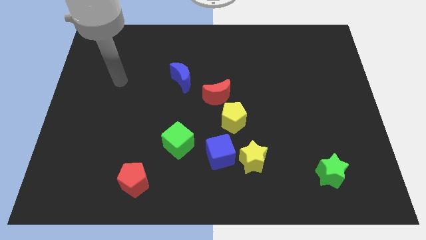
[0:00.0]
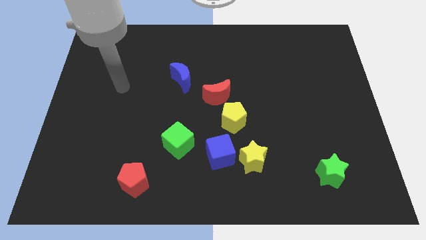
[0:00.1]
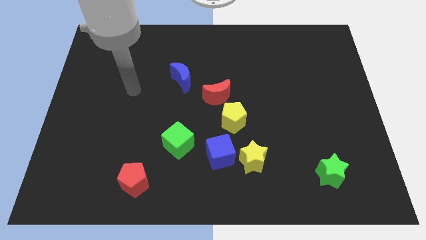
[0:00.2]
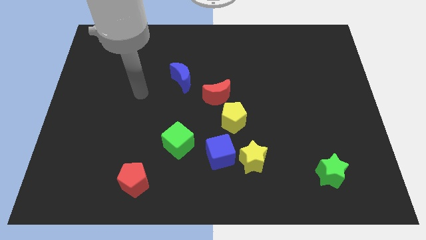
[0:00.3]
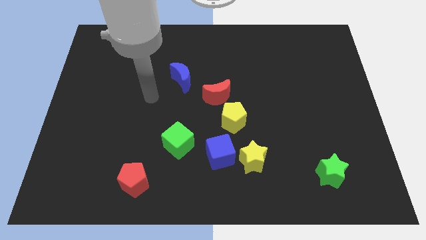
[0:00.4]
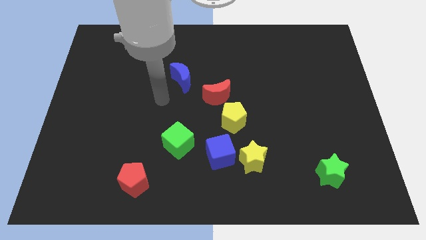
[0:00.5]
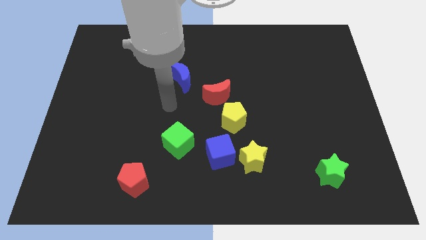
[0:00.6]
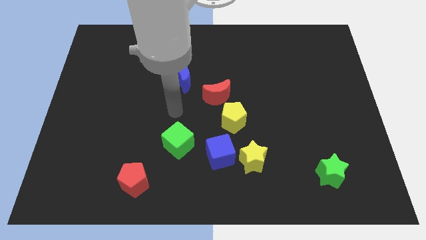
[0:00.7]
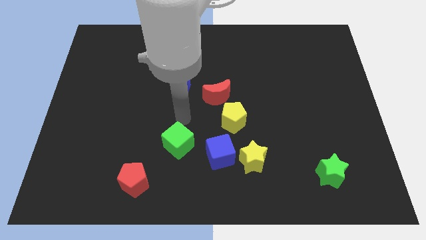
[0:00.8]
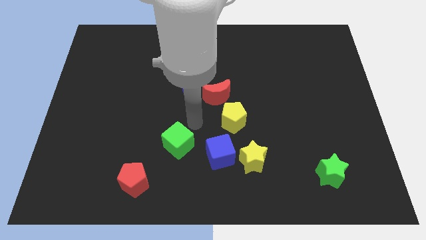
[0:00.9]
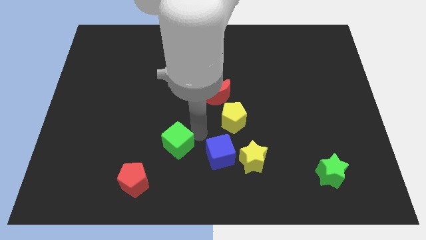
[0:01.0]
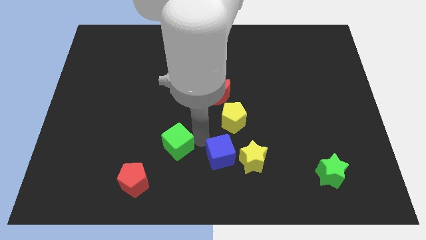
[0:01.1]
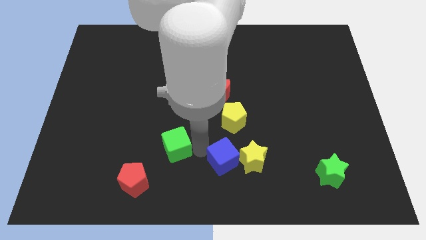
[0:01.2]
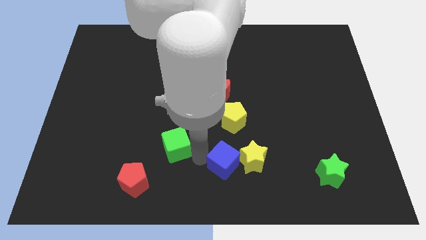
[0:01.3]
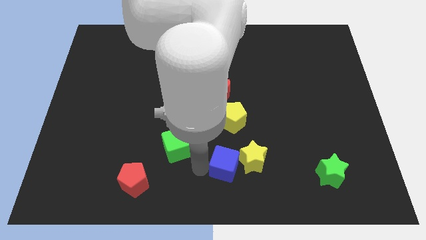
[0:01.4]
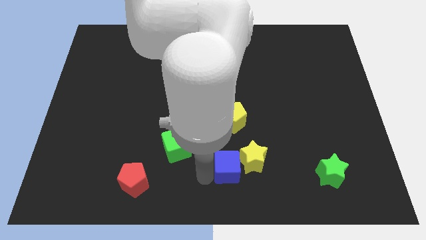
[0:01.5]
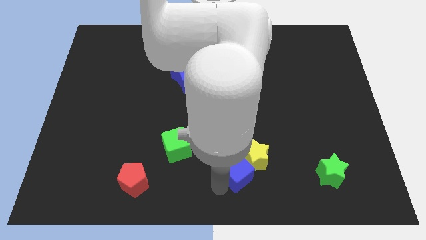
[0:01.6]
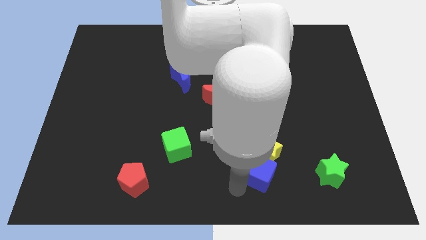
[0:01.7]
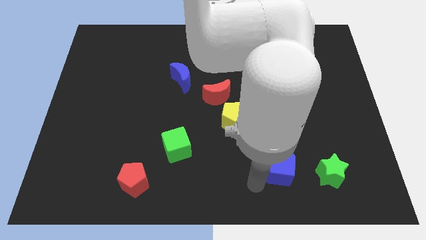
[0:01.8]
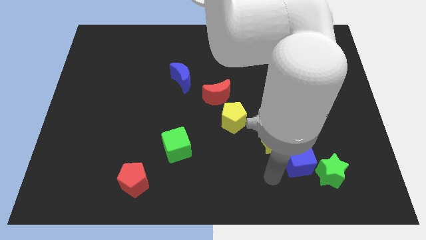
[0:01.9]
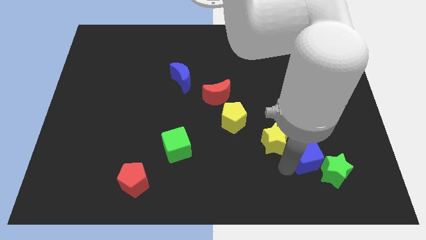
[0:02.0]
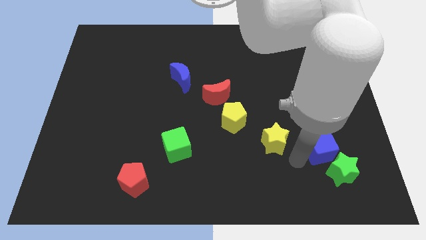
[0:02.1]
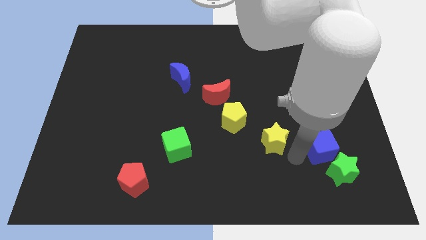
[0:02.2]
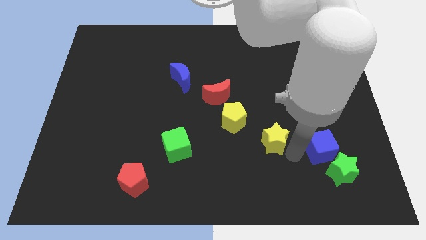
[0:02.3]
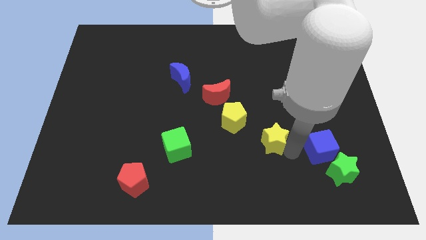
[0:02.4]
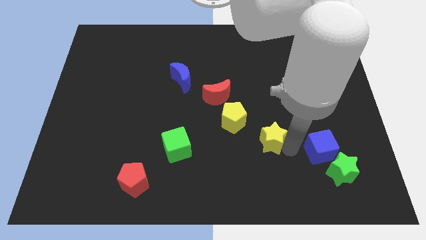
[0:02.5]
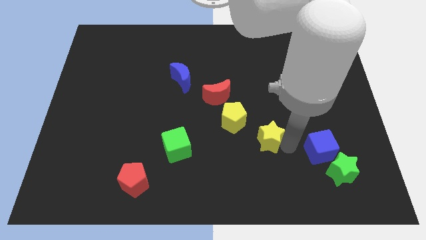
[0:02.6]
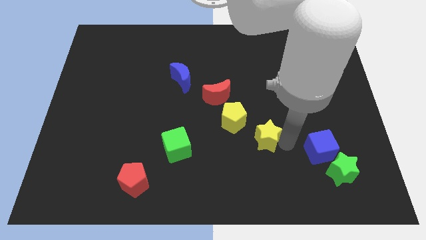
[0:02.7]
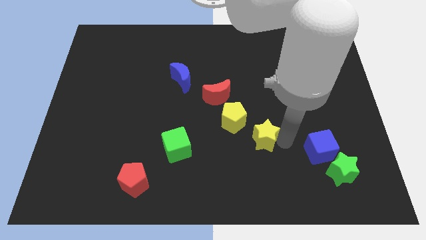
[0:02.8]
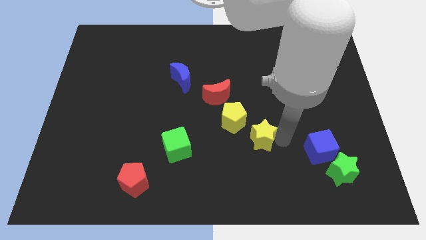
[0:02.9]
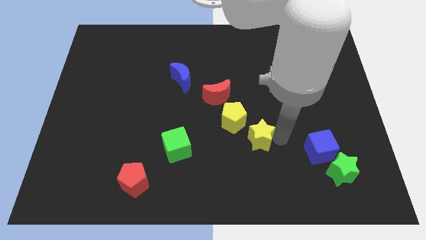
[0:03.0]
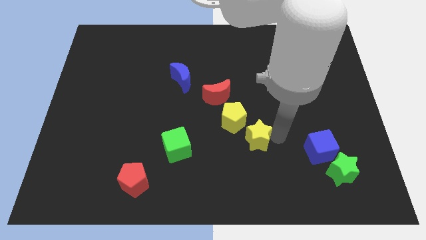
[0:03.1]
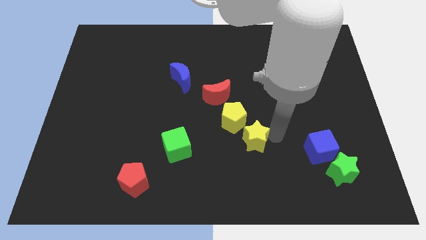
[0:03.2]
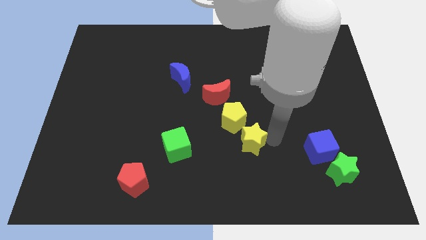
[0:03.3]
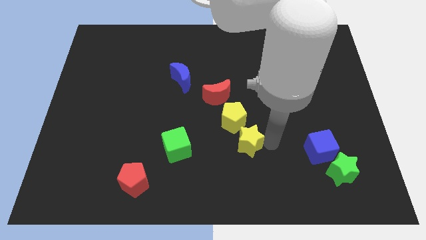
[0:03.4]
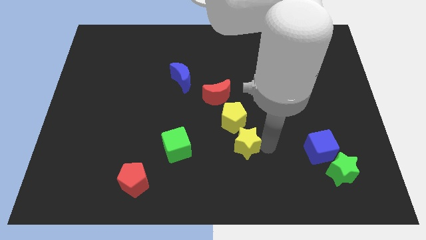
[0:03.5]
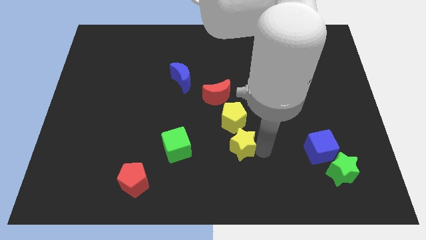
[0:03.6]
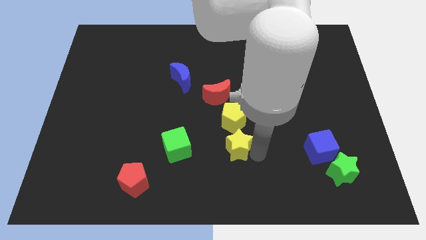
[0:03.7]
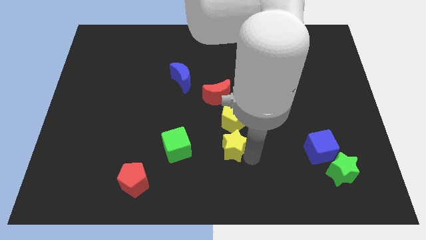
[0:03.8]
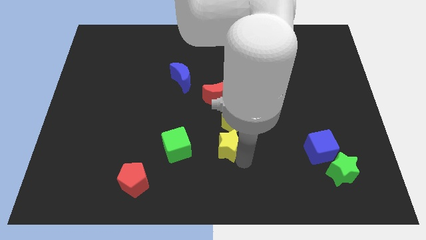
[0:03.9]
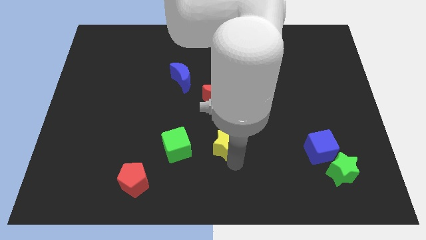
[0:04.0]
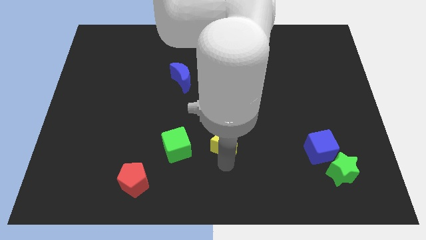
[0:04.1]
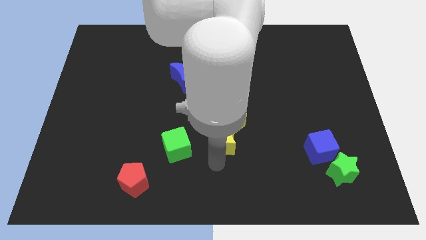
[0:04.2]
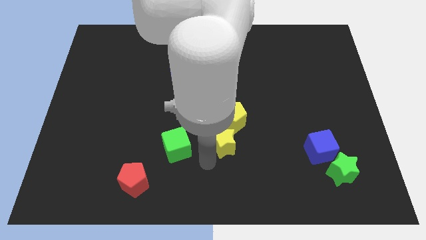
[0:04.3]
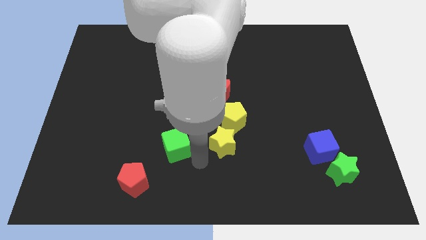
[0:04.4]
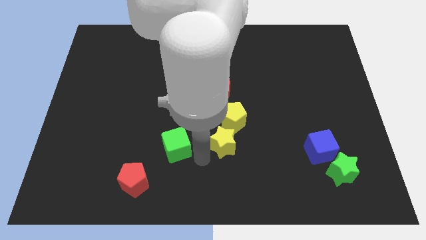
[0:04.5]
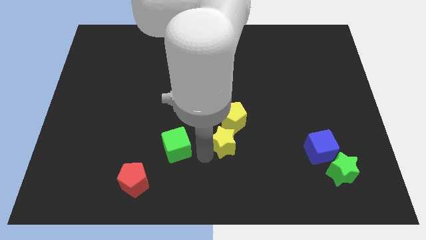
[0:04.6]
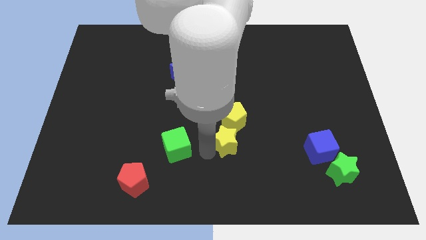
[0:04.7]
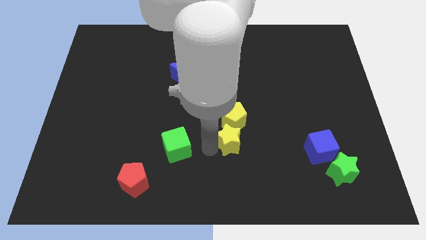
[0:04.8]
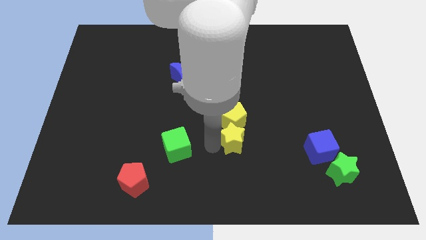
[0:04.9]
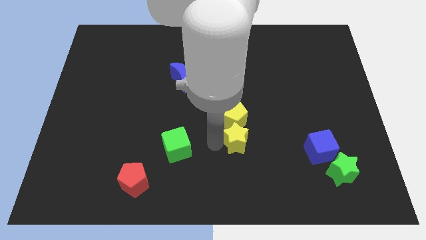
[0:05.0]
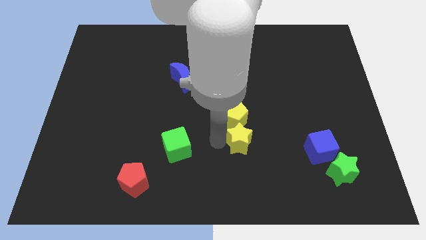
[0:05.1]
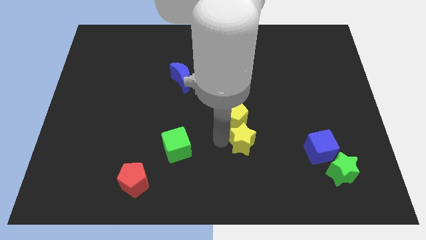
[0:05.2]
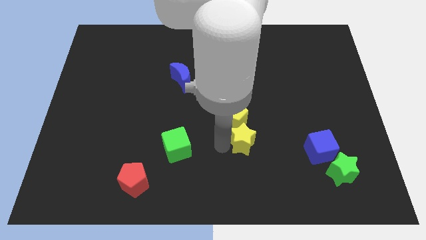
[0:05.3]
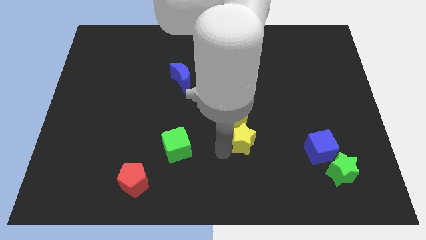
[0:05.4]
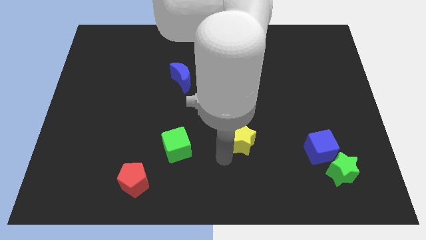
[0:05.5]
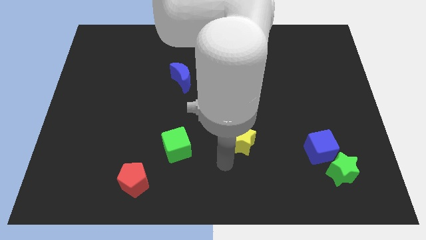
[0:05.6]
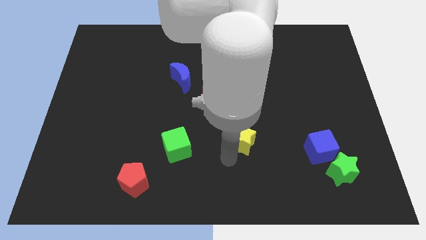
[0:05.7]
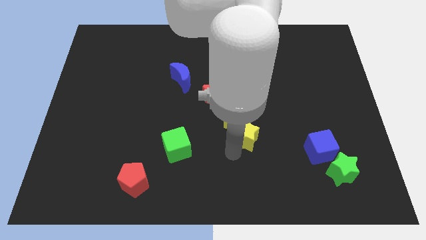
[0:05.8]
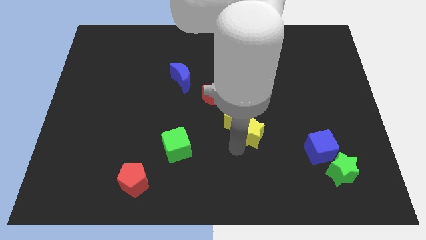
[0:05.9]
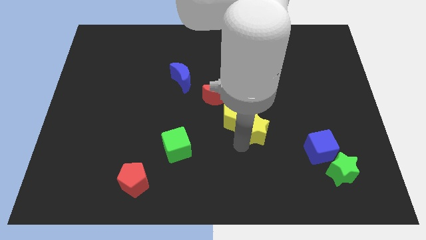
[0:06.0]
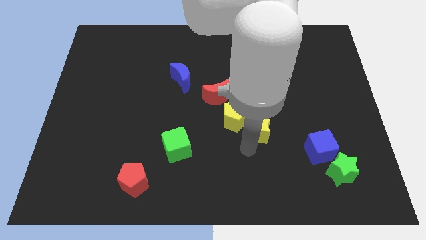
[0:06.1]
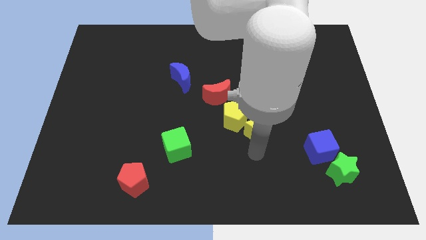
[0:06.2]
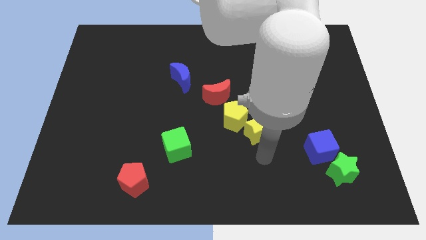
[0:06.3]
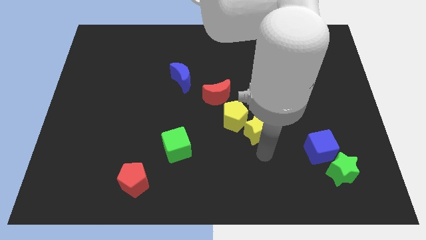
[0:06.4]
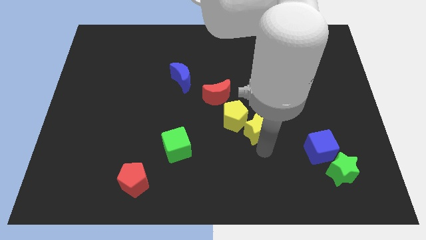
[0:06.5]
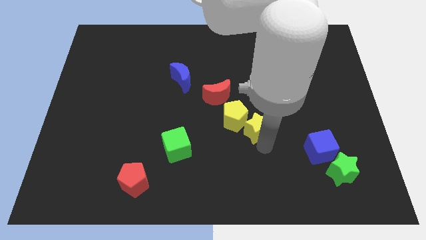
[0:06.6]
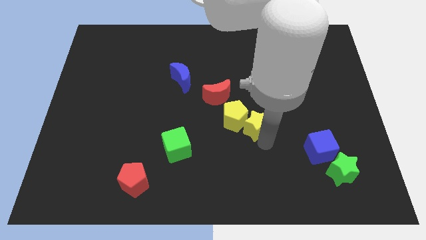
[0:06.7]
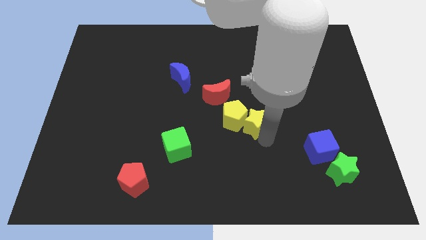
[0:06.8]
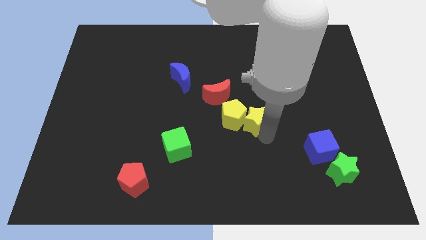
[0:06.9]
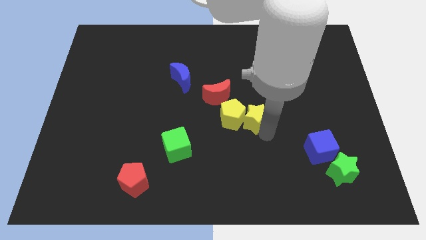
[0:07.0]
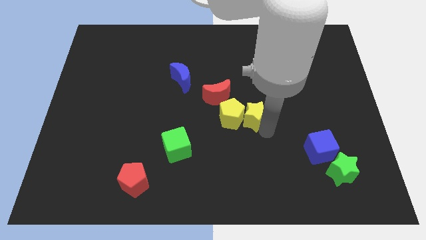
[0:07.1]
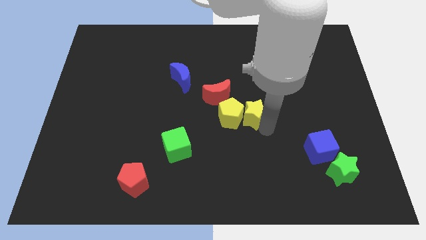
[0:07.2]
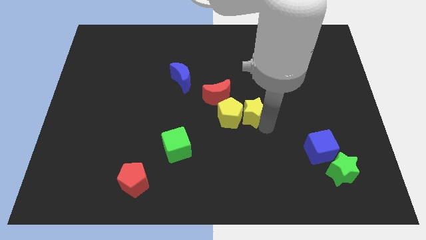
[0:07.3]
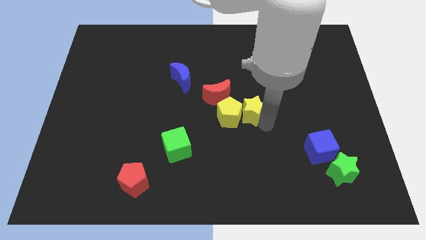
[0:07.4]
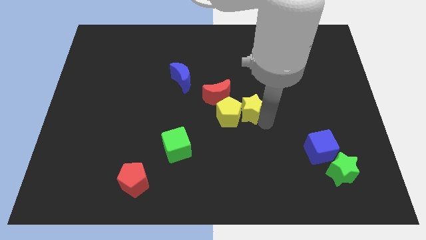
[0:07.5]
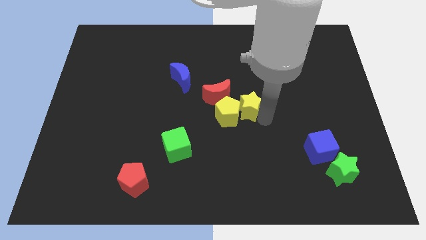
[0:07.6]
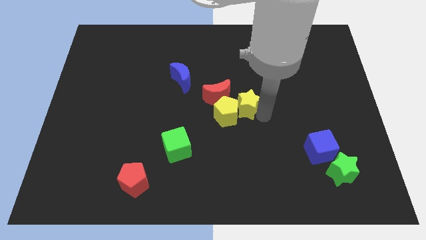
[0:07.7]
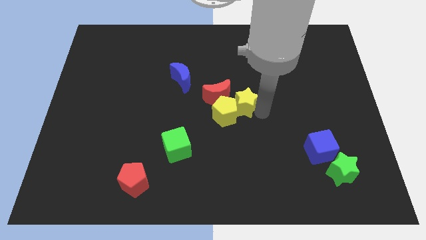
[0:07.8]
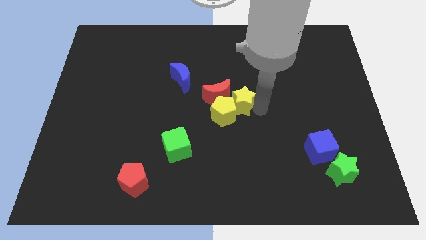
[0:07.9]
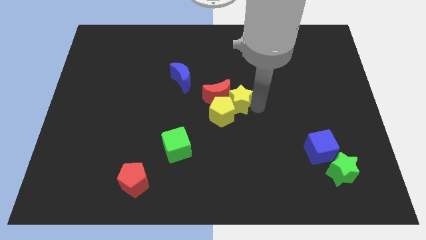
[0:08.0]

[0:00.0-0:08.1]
push the yellow star to the top of the yellow pentagon

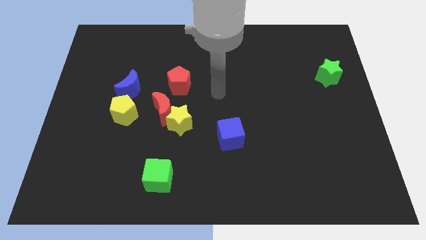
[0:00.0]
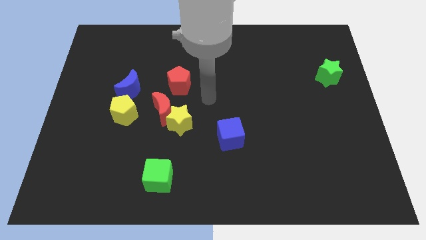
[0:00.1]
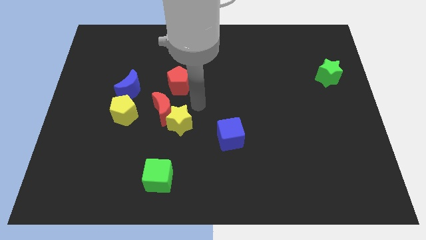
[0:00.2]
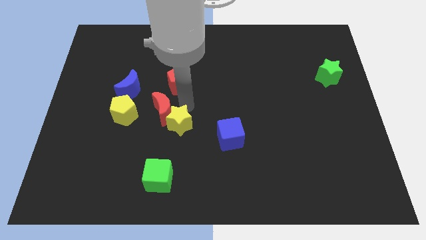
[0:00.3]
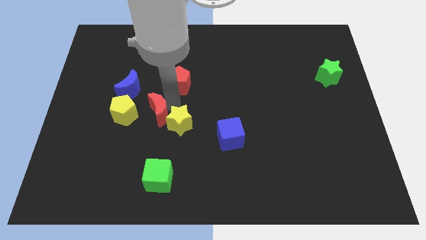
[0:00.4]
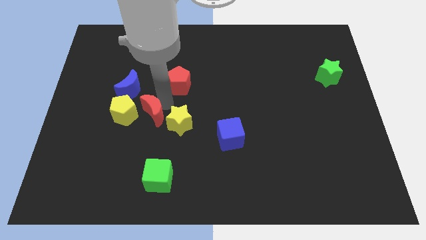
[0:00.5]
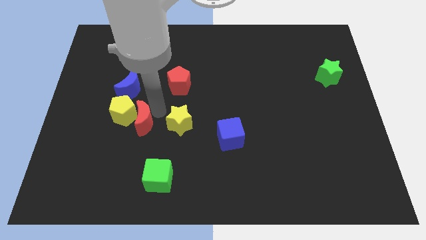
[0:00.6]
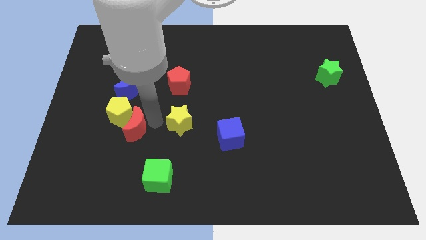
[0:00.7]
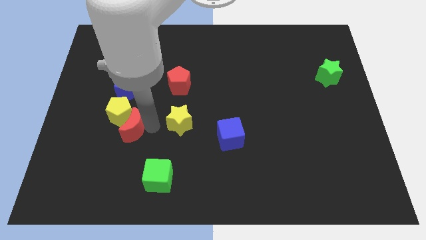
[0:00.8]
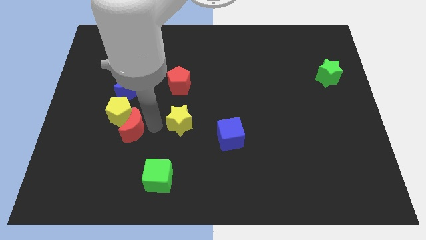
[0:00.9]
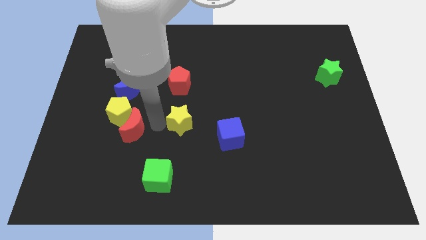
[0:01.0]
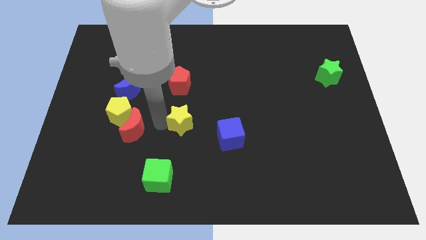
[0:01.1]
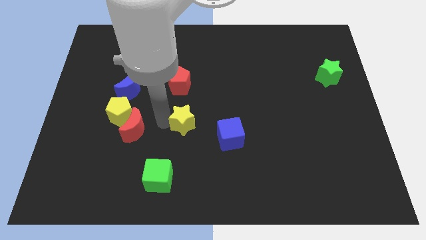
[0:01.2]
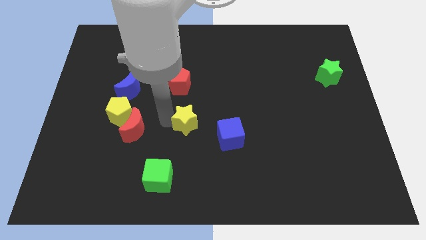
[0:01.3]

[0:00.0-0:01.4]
move the yellow star diagonally up and to the left of the blue cube
